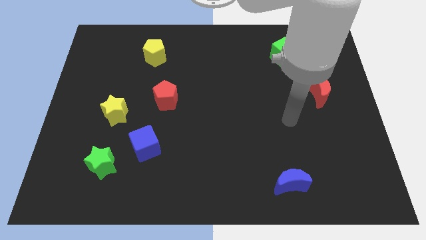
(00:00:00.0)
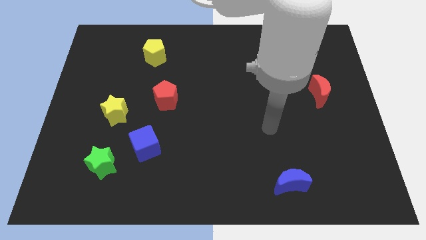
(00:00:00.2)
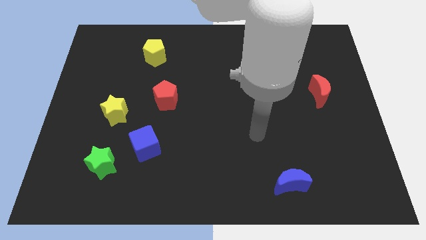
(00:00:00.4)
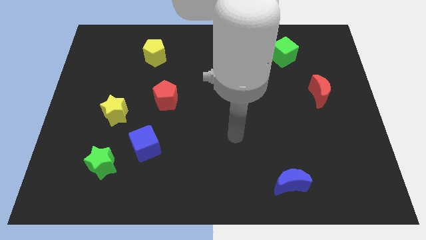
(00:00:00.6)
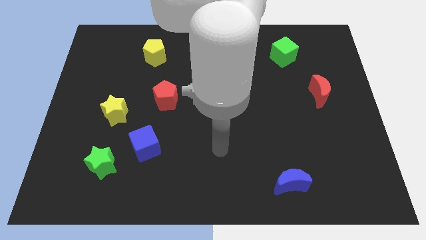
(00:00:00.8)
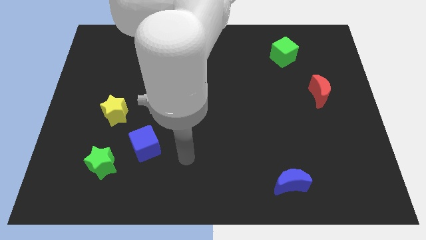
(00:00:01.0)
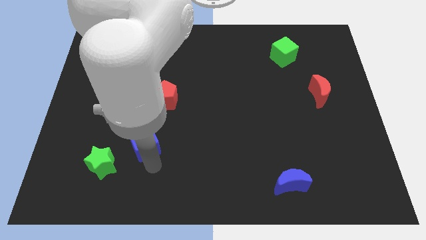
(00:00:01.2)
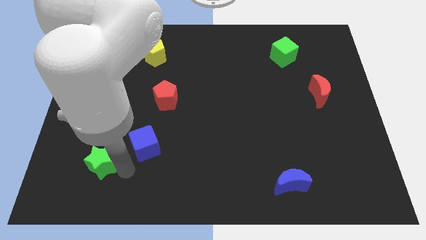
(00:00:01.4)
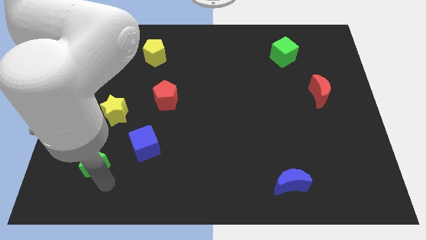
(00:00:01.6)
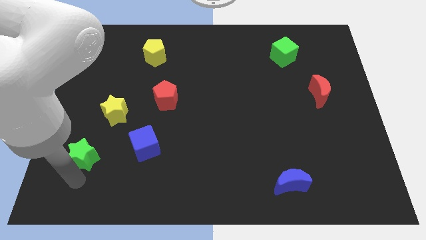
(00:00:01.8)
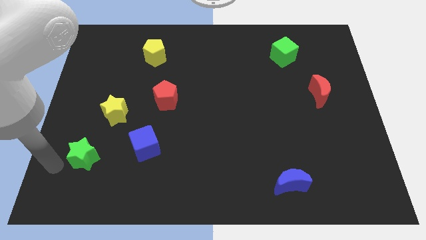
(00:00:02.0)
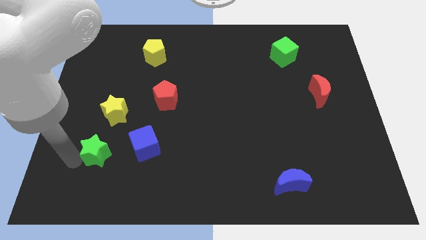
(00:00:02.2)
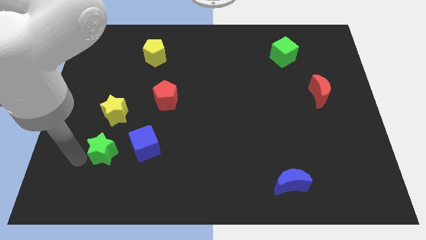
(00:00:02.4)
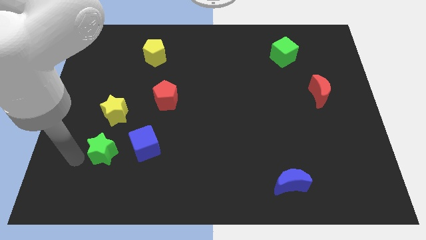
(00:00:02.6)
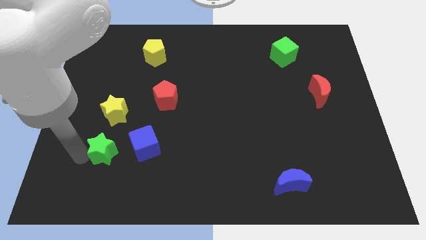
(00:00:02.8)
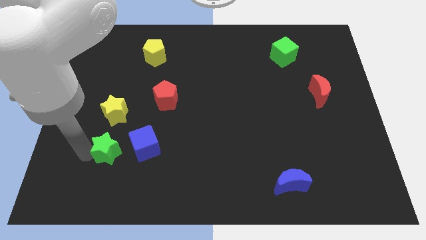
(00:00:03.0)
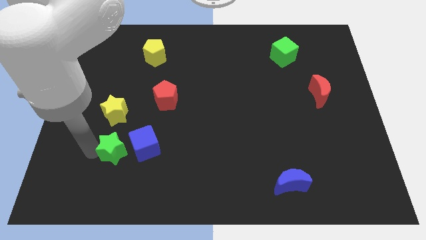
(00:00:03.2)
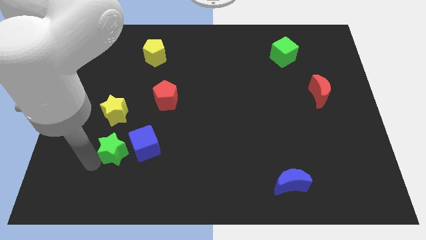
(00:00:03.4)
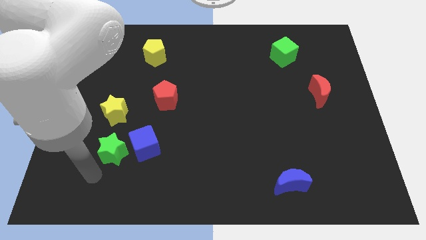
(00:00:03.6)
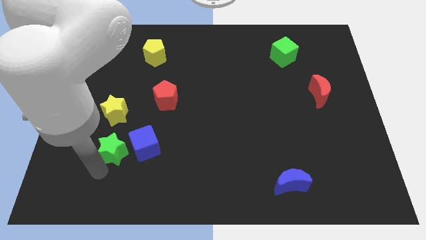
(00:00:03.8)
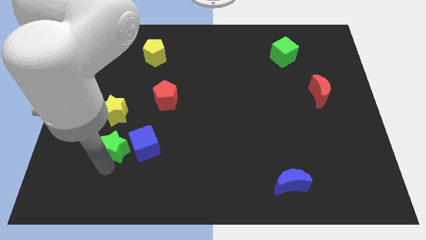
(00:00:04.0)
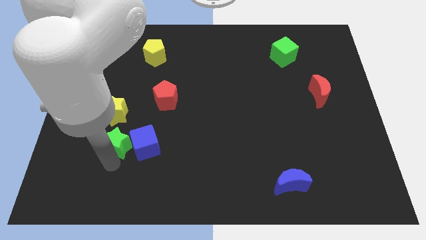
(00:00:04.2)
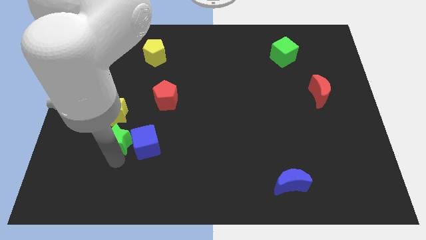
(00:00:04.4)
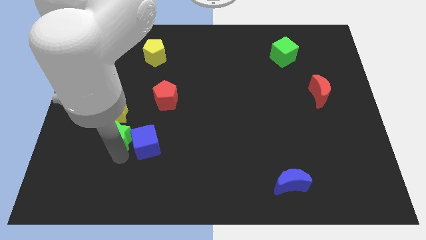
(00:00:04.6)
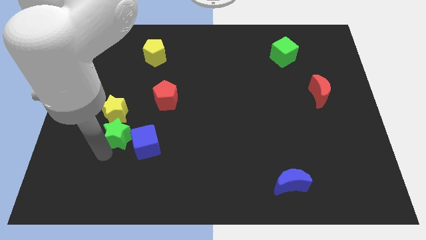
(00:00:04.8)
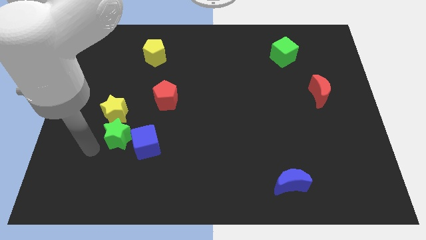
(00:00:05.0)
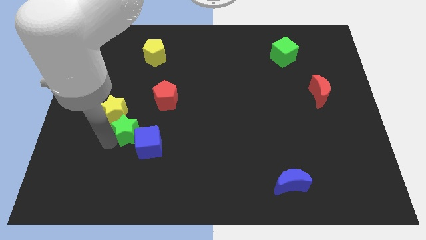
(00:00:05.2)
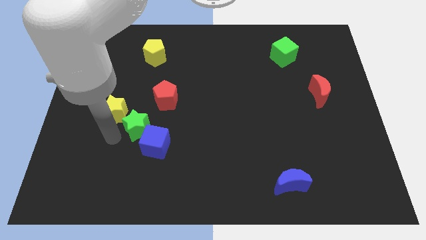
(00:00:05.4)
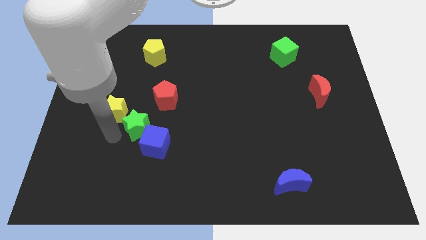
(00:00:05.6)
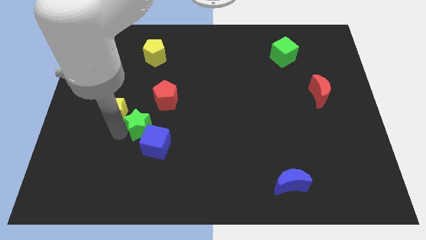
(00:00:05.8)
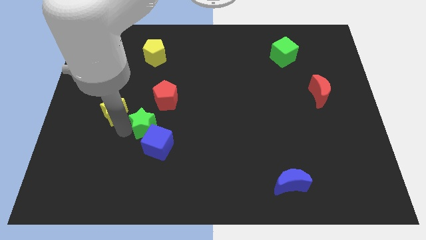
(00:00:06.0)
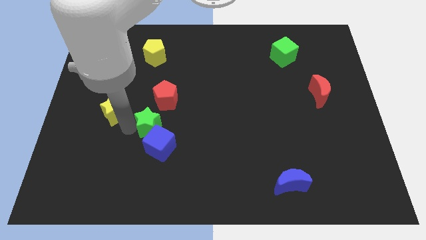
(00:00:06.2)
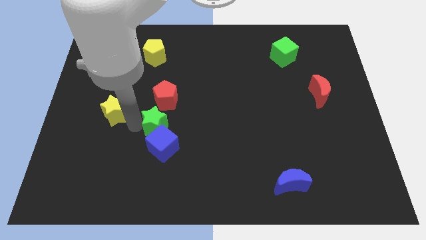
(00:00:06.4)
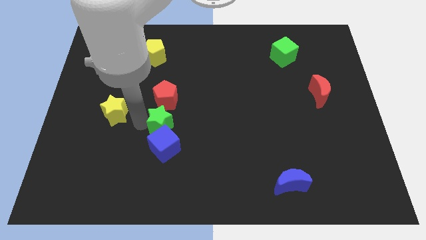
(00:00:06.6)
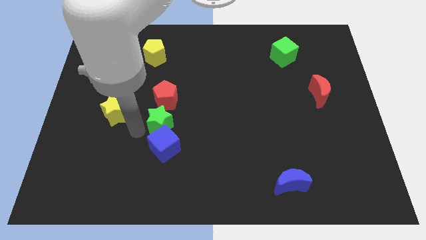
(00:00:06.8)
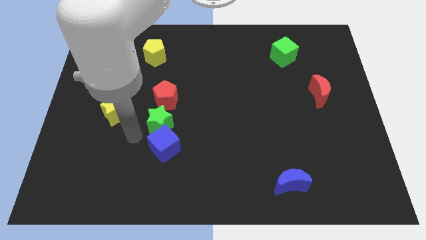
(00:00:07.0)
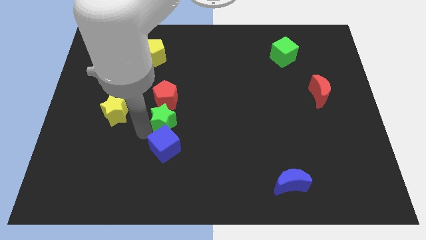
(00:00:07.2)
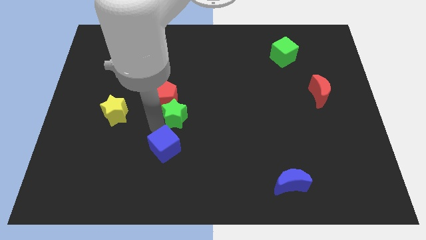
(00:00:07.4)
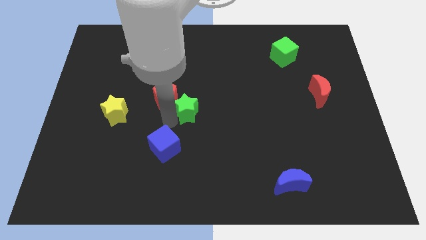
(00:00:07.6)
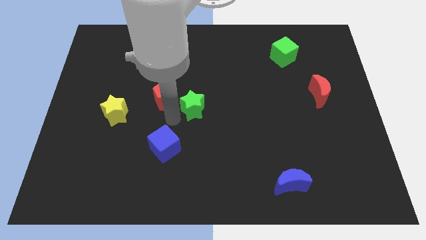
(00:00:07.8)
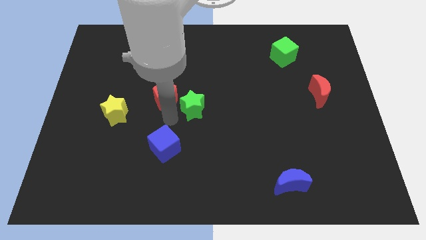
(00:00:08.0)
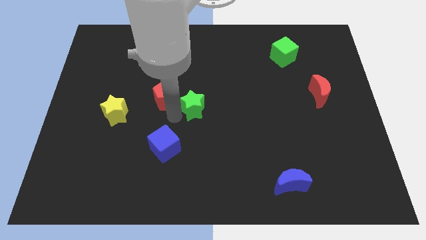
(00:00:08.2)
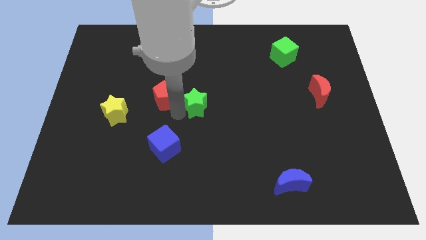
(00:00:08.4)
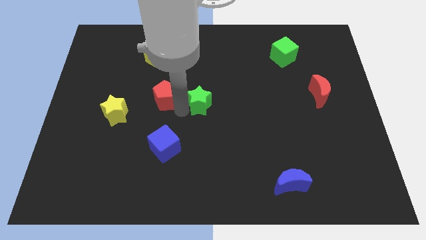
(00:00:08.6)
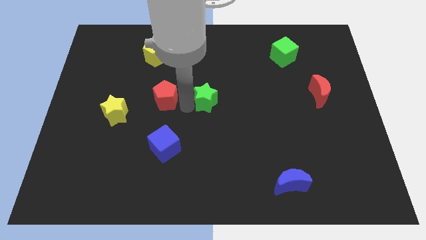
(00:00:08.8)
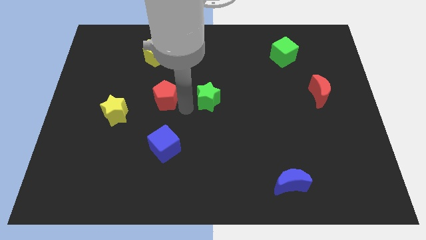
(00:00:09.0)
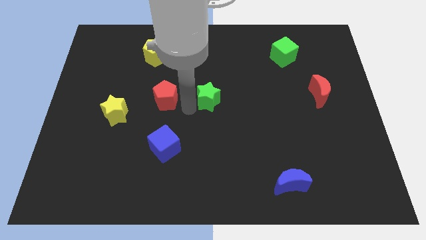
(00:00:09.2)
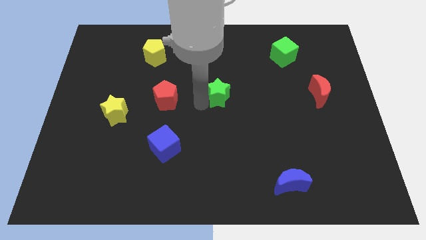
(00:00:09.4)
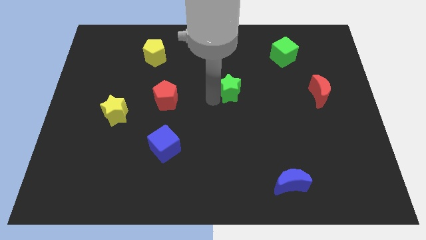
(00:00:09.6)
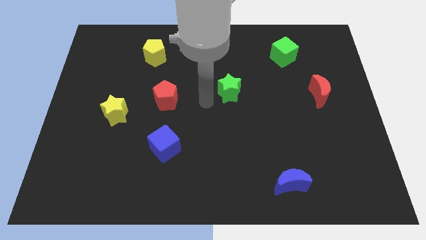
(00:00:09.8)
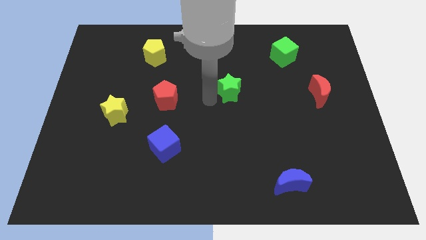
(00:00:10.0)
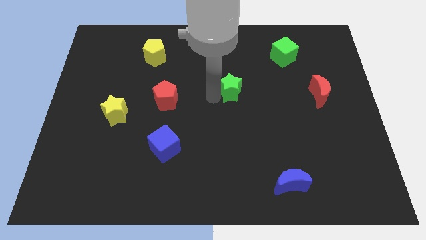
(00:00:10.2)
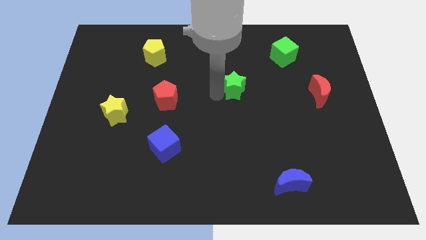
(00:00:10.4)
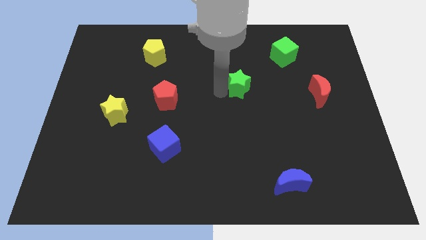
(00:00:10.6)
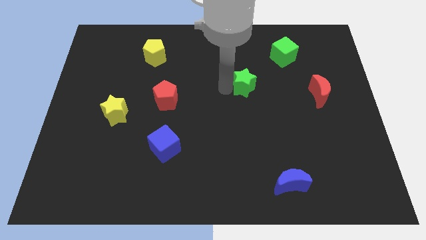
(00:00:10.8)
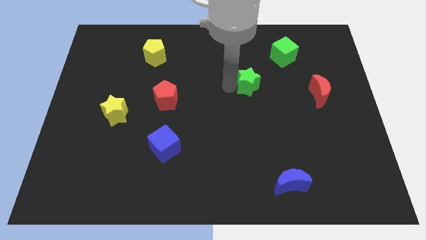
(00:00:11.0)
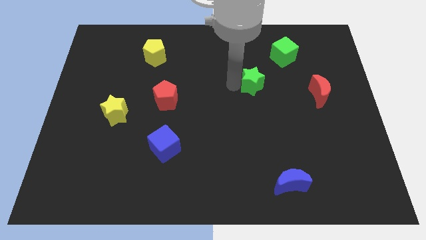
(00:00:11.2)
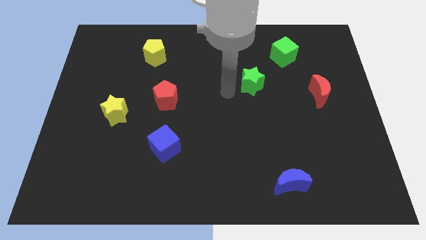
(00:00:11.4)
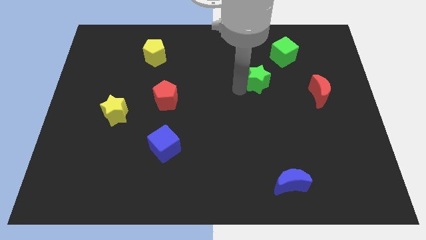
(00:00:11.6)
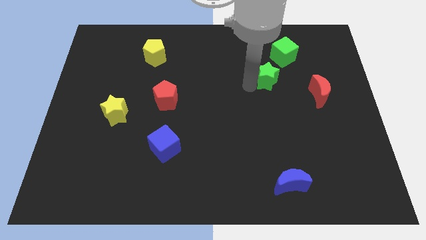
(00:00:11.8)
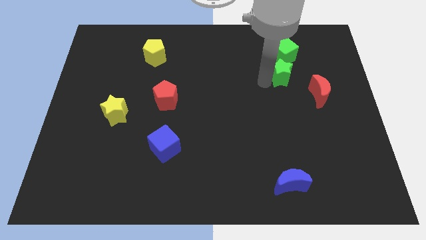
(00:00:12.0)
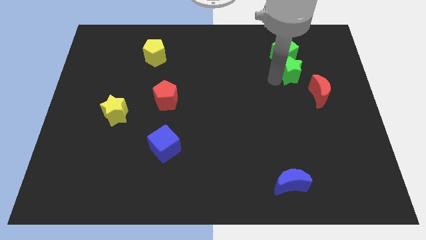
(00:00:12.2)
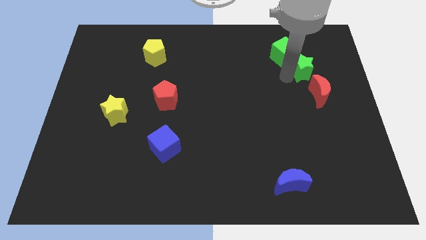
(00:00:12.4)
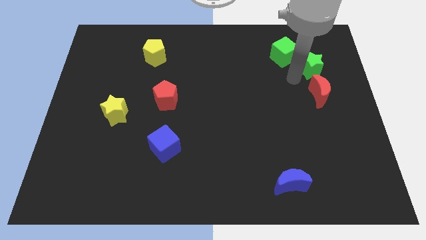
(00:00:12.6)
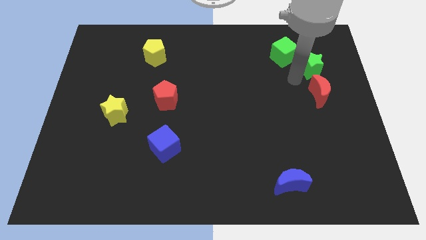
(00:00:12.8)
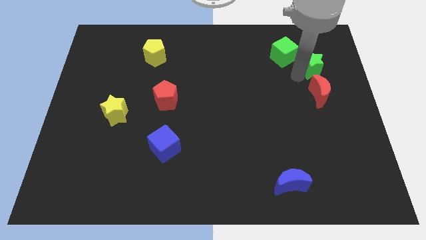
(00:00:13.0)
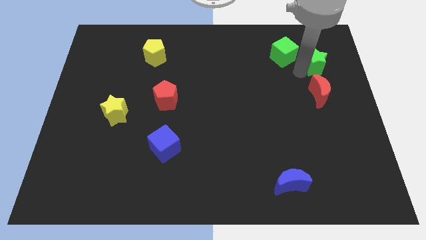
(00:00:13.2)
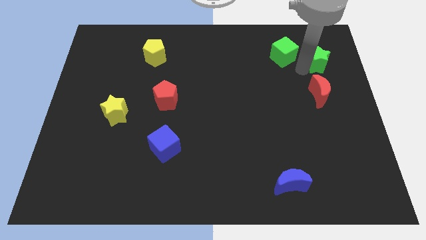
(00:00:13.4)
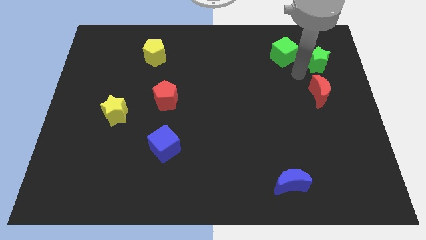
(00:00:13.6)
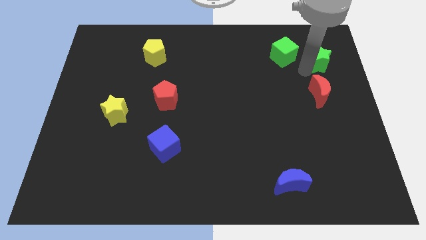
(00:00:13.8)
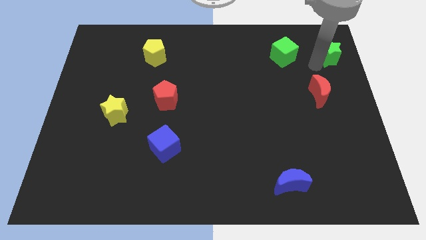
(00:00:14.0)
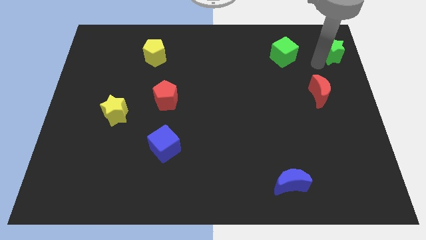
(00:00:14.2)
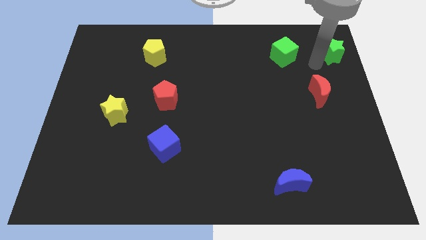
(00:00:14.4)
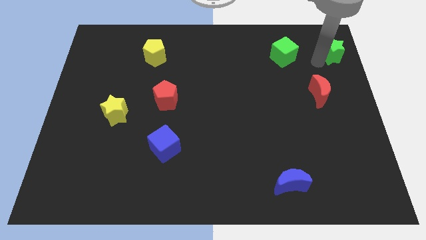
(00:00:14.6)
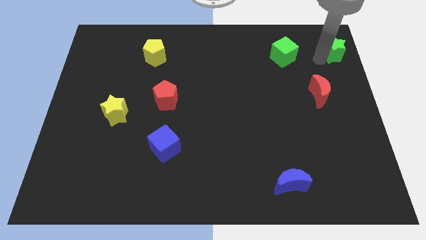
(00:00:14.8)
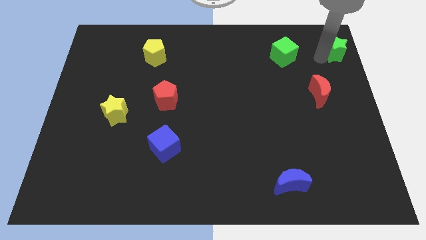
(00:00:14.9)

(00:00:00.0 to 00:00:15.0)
push the green star to the top right of the board
